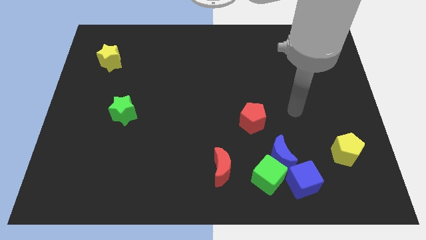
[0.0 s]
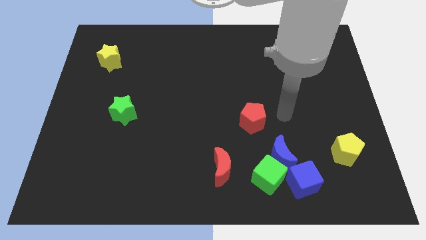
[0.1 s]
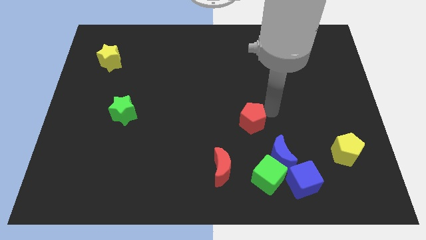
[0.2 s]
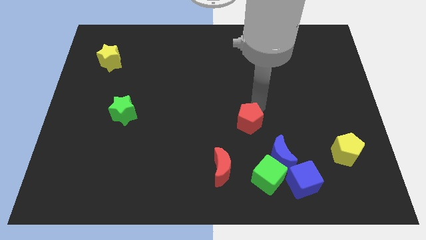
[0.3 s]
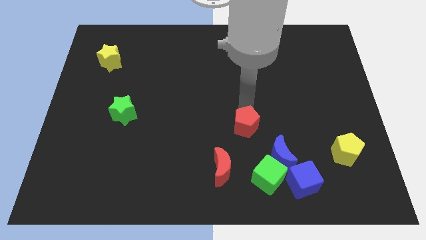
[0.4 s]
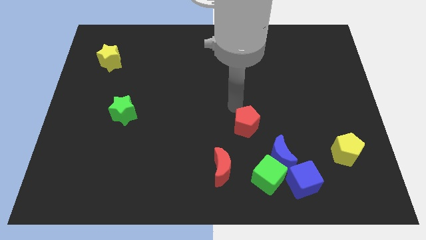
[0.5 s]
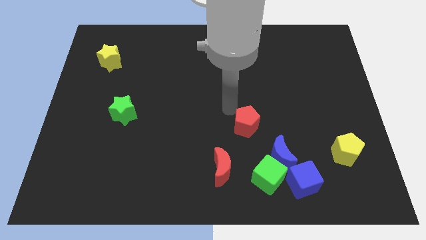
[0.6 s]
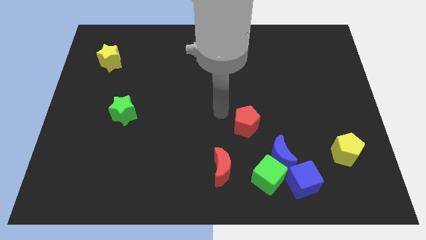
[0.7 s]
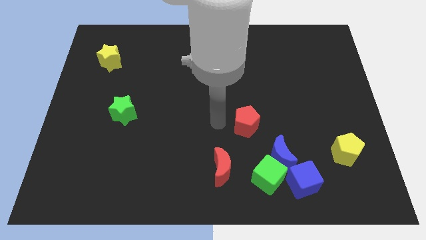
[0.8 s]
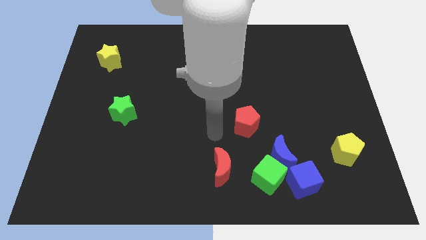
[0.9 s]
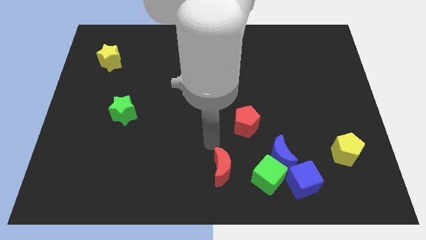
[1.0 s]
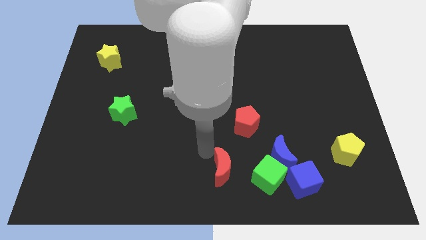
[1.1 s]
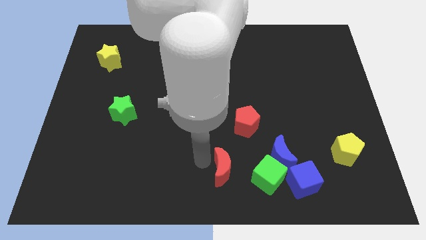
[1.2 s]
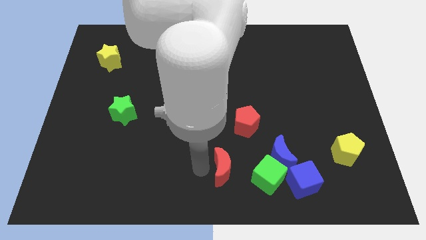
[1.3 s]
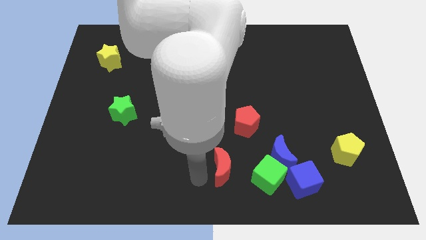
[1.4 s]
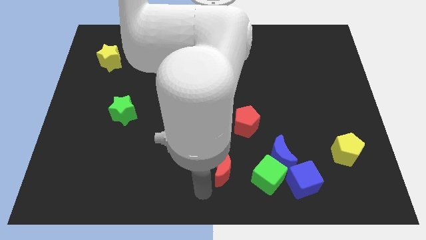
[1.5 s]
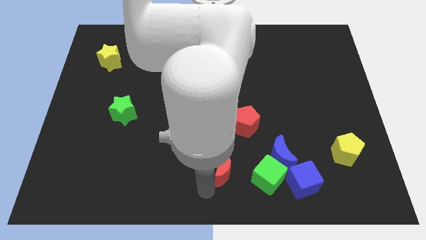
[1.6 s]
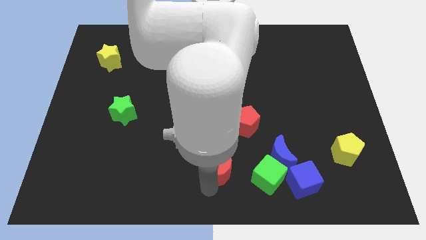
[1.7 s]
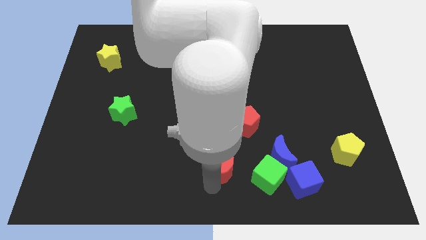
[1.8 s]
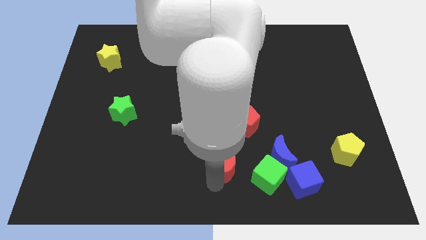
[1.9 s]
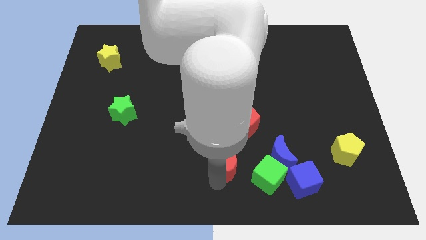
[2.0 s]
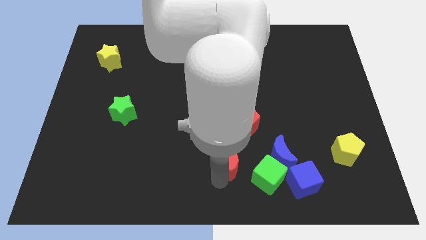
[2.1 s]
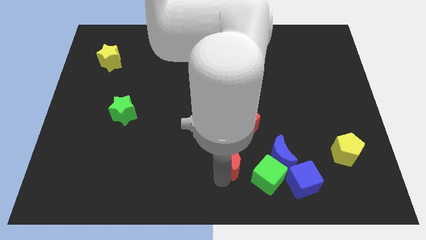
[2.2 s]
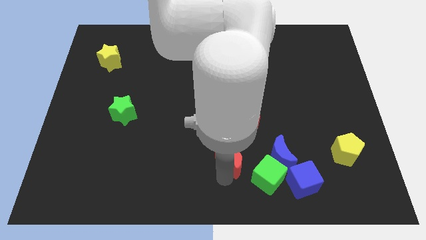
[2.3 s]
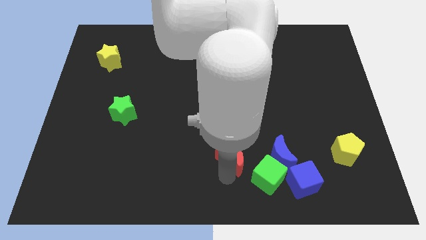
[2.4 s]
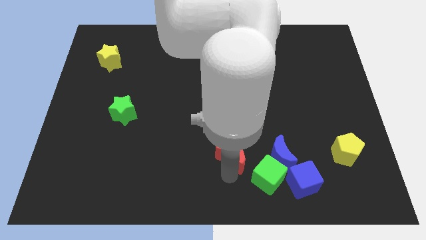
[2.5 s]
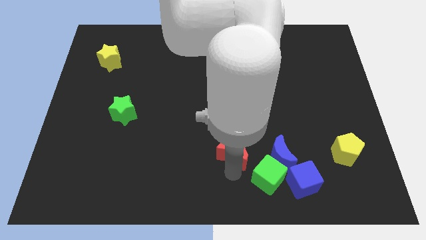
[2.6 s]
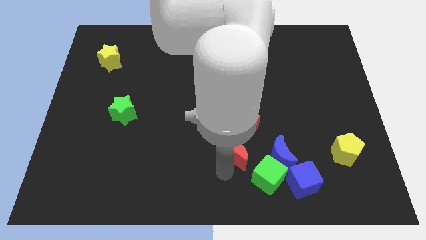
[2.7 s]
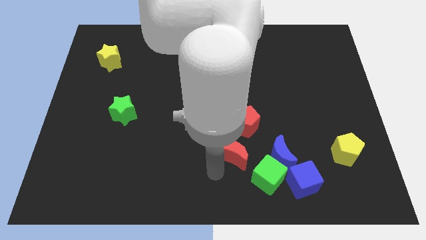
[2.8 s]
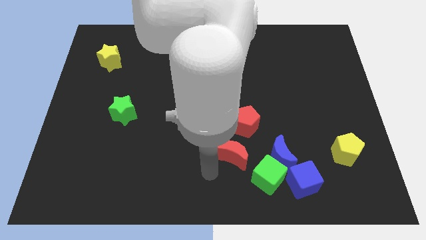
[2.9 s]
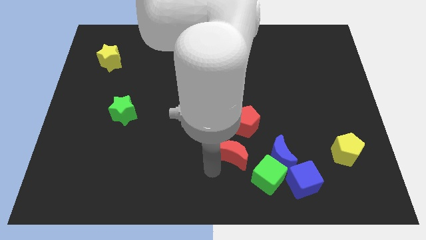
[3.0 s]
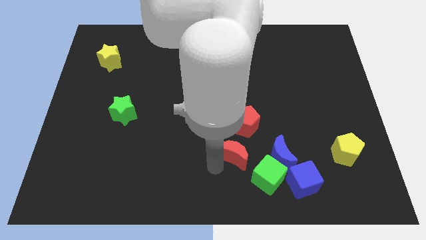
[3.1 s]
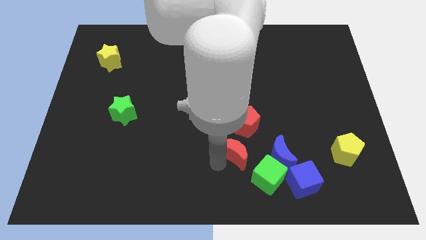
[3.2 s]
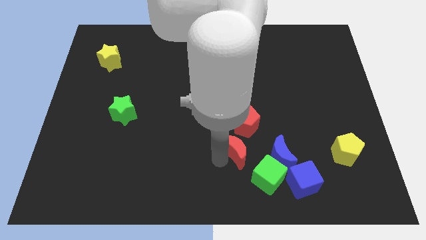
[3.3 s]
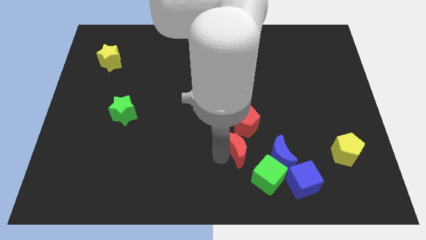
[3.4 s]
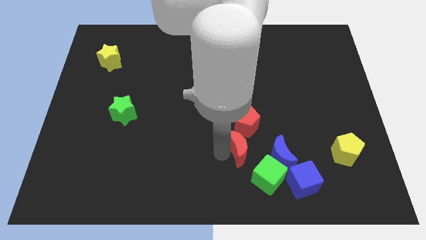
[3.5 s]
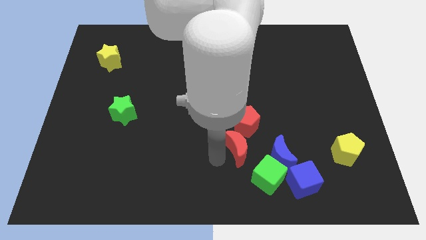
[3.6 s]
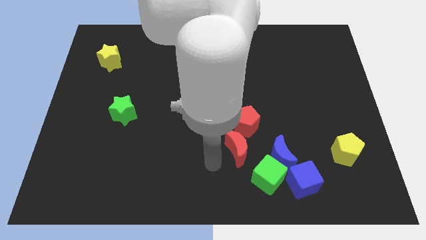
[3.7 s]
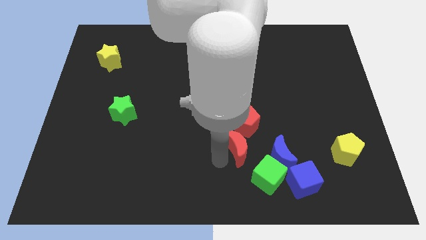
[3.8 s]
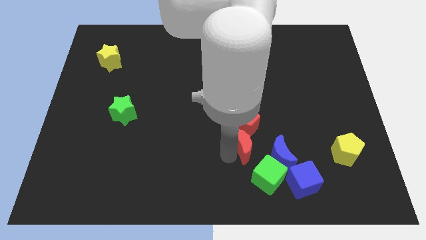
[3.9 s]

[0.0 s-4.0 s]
slightly slide the red moon upwards and then right

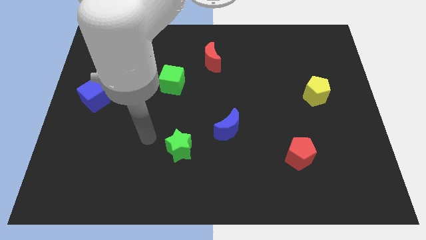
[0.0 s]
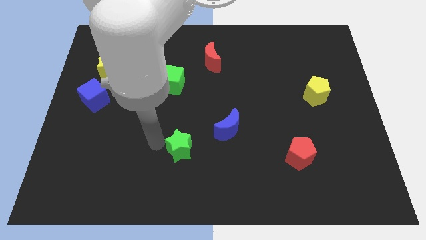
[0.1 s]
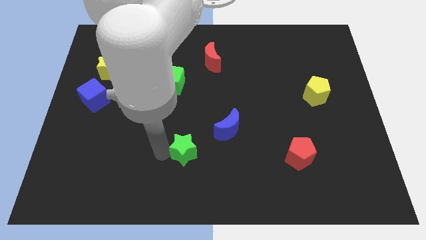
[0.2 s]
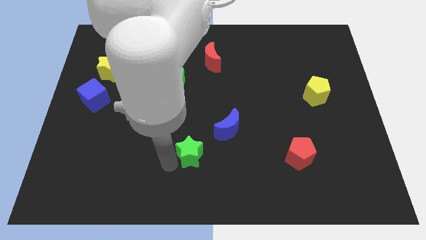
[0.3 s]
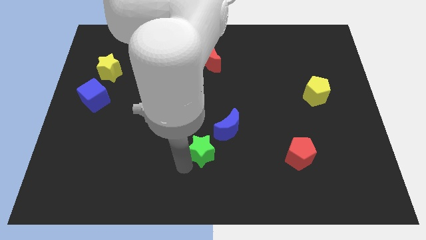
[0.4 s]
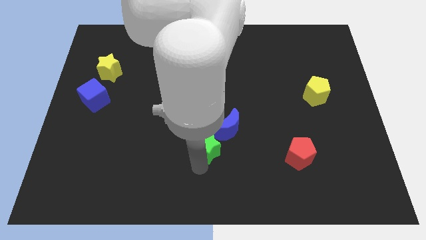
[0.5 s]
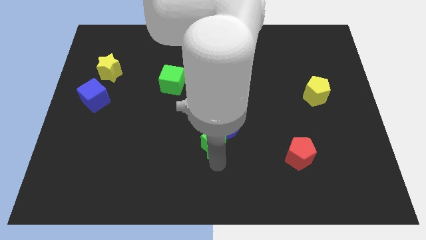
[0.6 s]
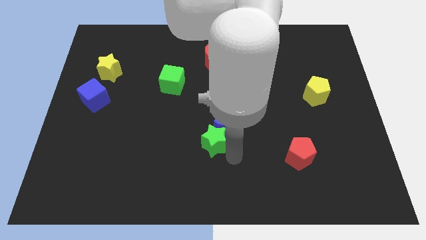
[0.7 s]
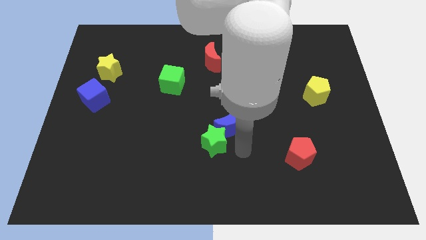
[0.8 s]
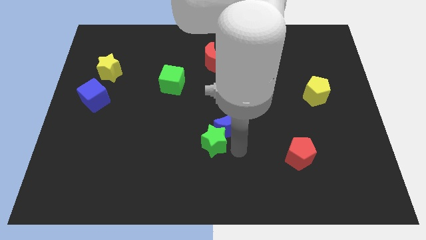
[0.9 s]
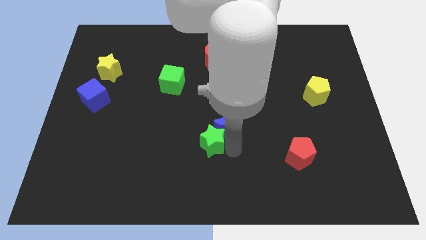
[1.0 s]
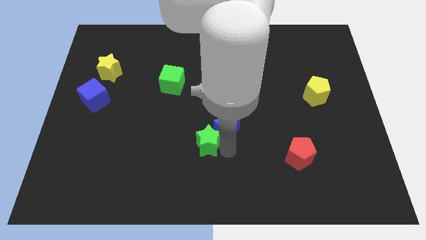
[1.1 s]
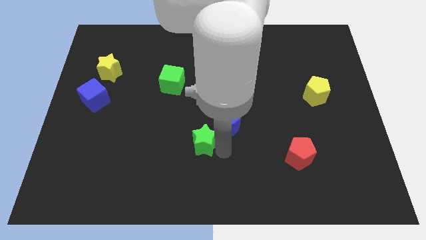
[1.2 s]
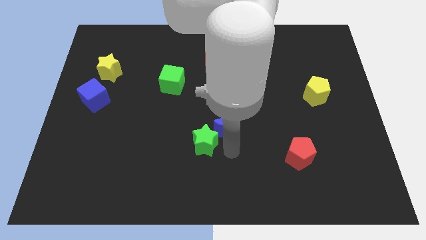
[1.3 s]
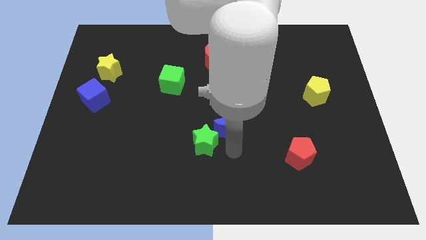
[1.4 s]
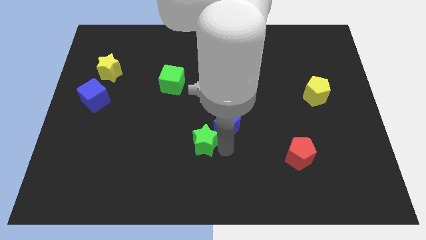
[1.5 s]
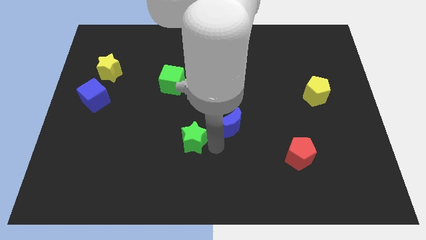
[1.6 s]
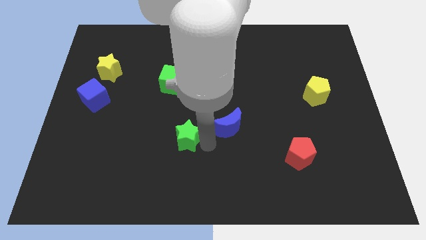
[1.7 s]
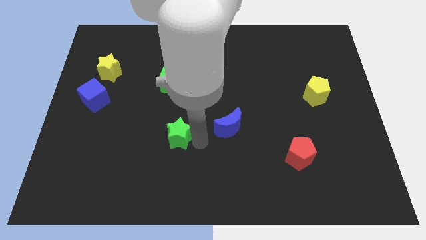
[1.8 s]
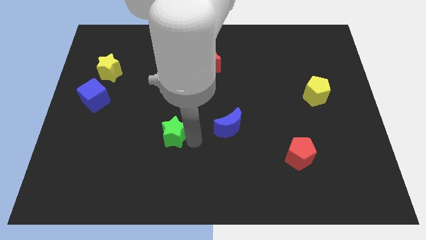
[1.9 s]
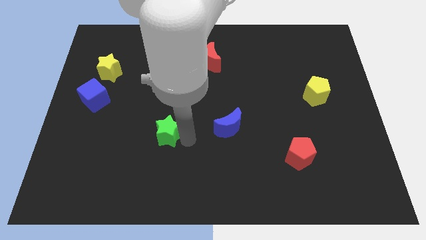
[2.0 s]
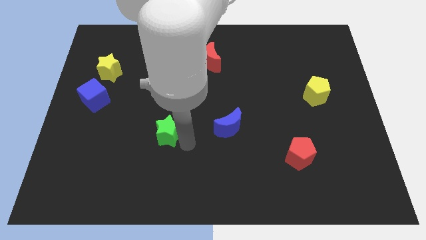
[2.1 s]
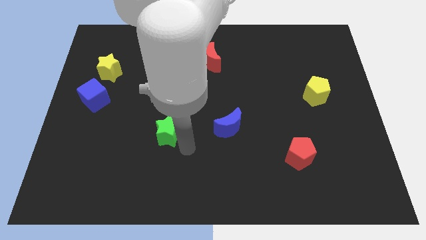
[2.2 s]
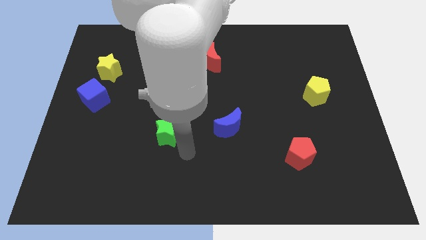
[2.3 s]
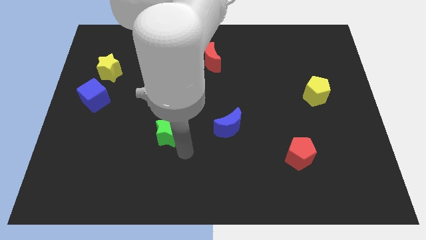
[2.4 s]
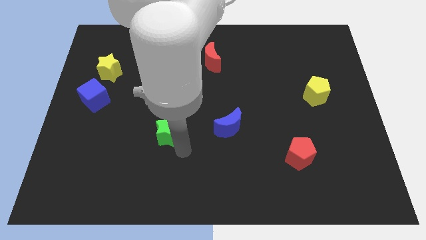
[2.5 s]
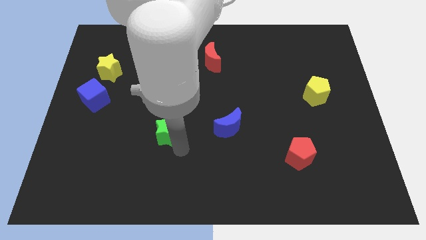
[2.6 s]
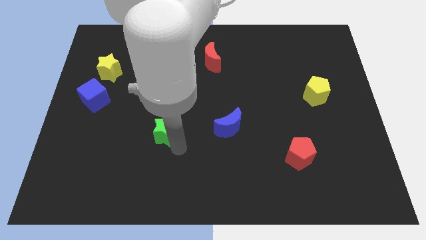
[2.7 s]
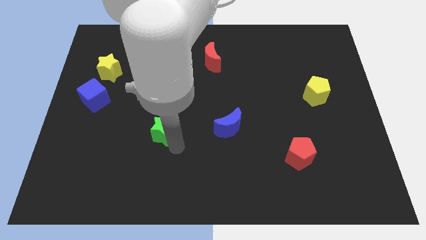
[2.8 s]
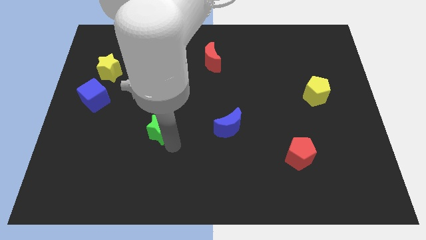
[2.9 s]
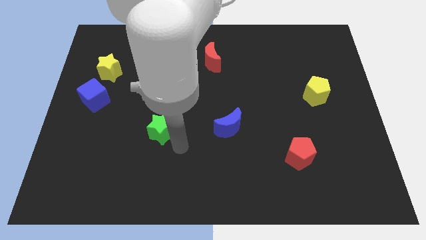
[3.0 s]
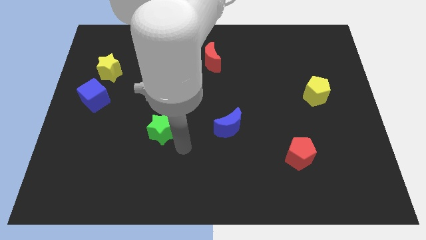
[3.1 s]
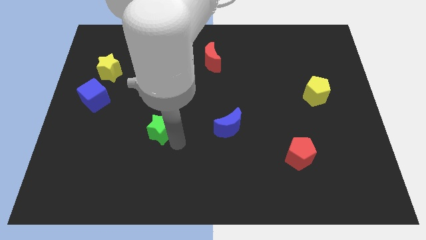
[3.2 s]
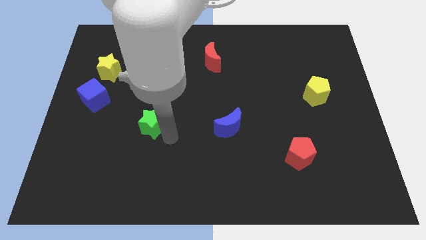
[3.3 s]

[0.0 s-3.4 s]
slide the green star somewhat upwards and then left

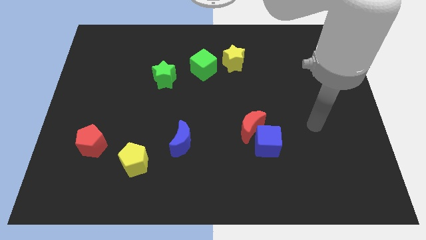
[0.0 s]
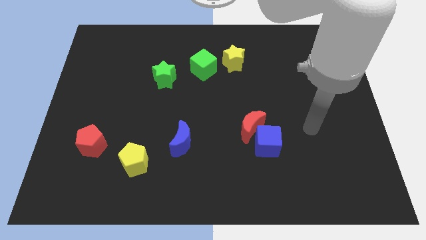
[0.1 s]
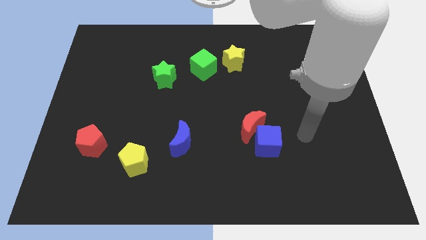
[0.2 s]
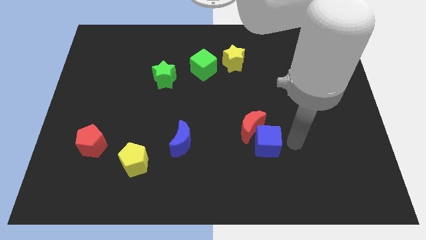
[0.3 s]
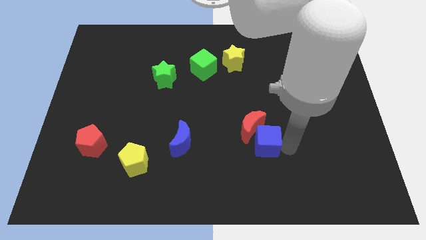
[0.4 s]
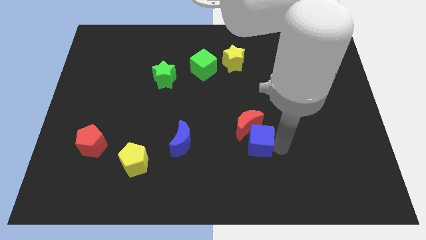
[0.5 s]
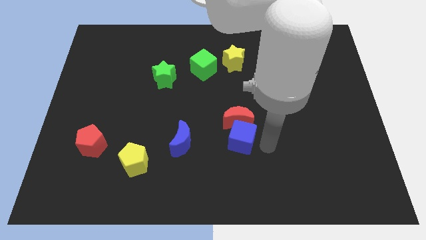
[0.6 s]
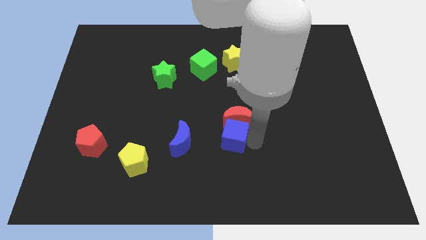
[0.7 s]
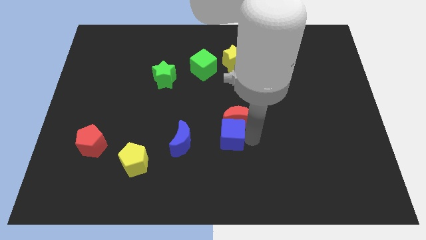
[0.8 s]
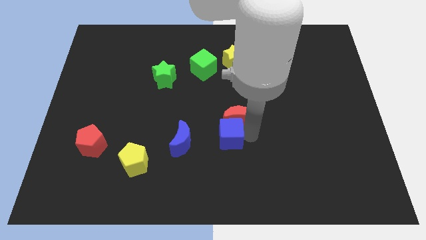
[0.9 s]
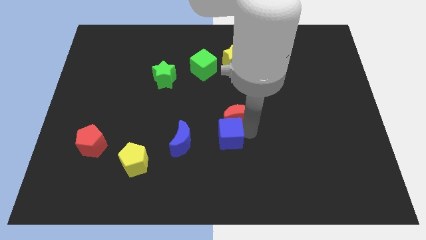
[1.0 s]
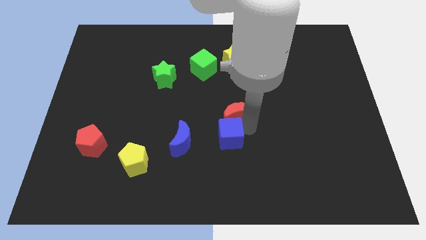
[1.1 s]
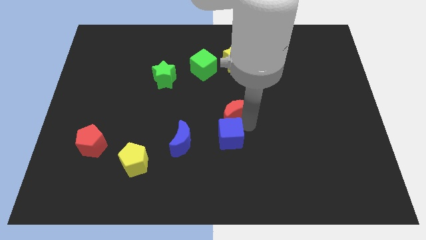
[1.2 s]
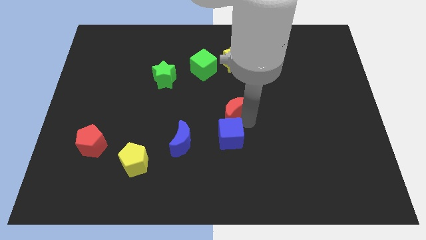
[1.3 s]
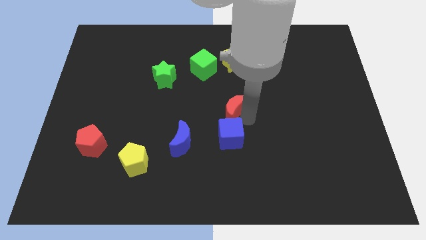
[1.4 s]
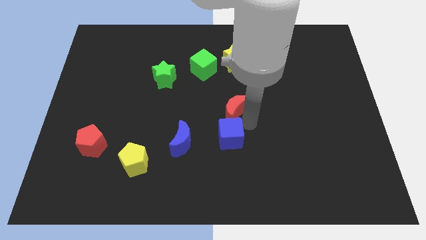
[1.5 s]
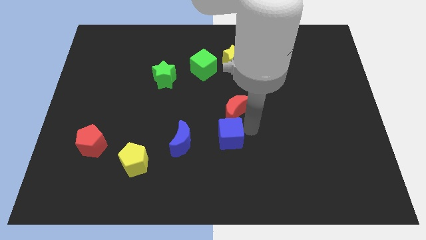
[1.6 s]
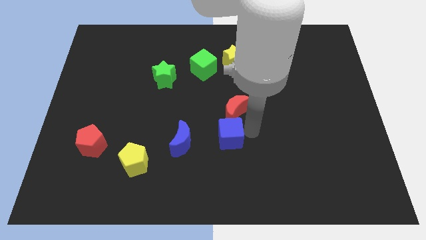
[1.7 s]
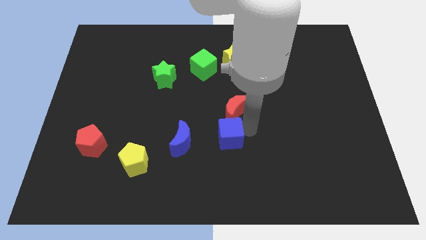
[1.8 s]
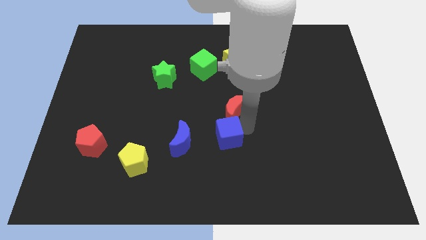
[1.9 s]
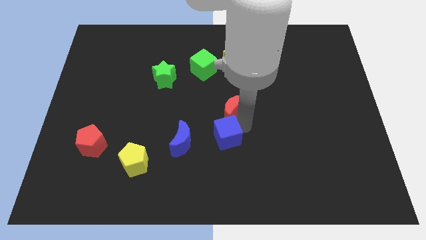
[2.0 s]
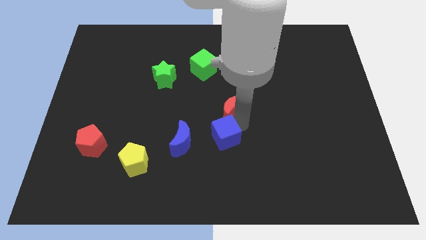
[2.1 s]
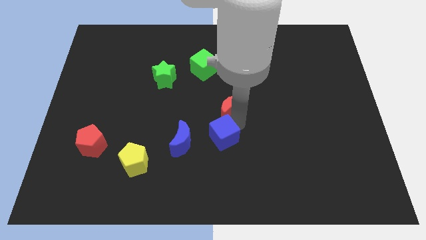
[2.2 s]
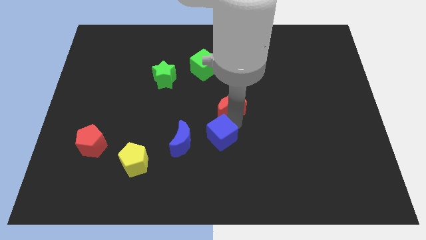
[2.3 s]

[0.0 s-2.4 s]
slide the red moon diagonally upwards and left a bit
